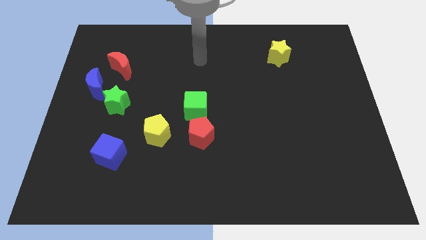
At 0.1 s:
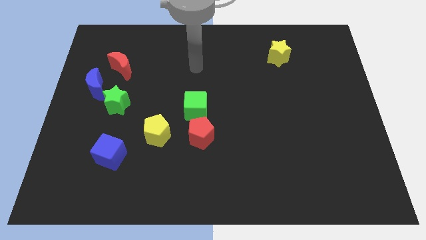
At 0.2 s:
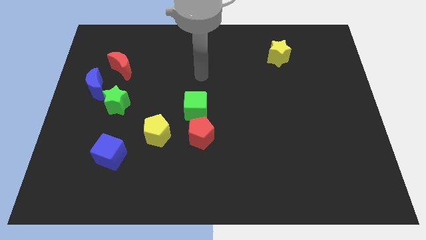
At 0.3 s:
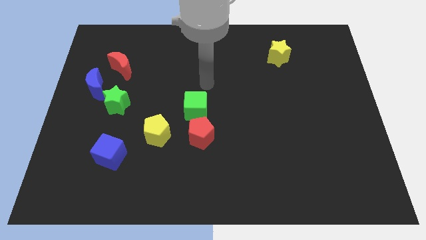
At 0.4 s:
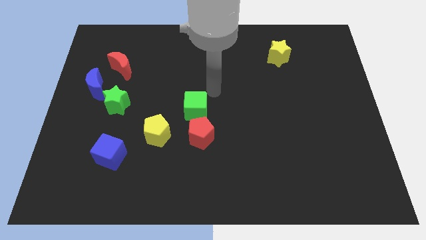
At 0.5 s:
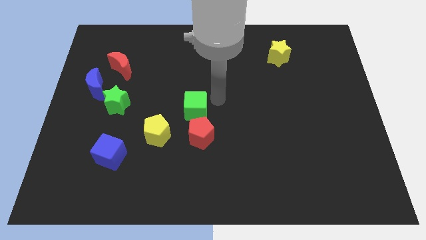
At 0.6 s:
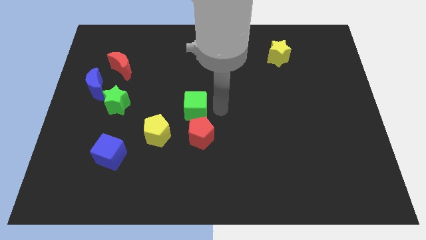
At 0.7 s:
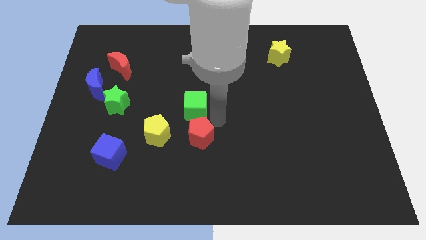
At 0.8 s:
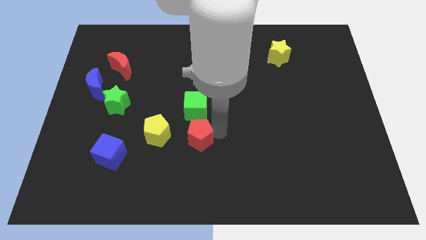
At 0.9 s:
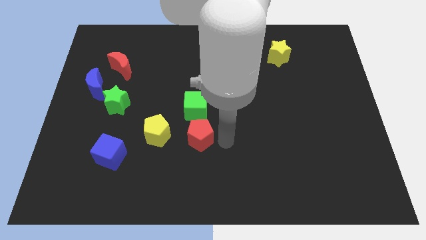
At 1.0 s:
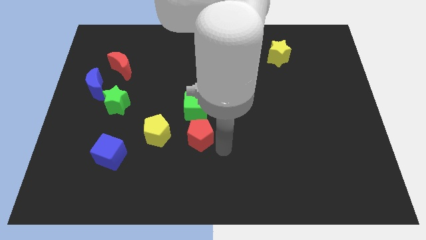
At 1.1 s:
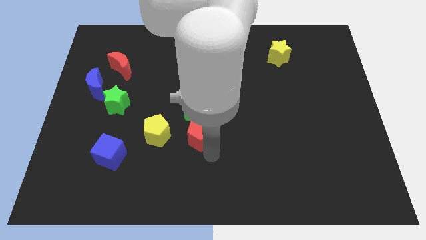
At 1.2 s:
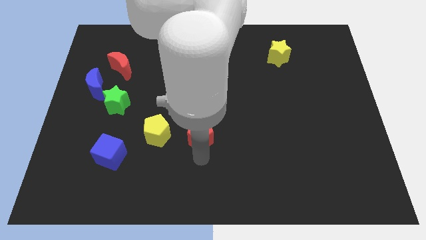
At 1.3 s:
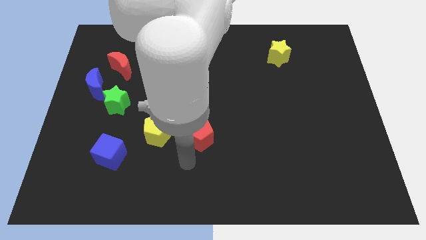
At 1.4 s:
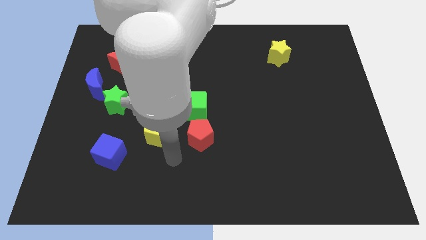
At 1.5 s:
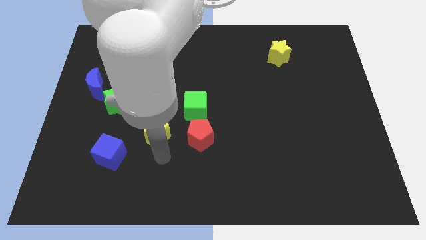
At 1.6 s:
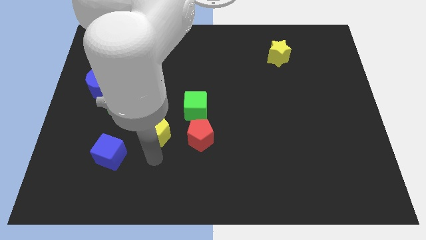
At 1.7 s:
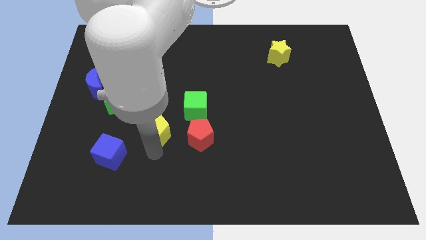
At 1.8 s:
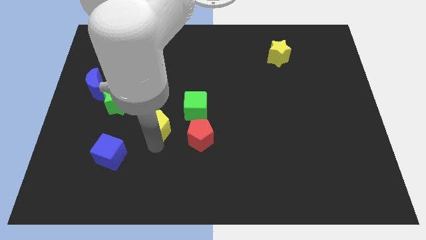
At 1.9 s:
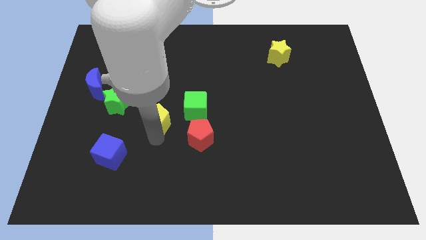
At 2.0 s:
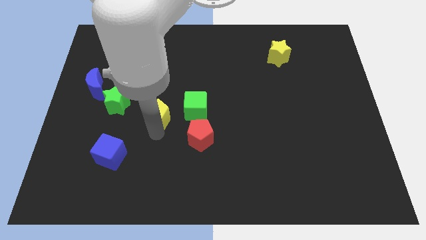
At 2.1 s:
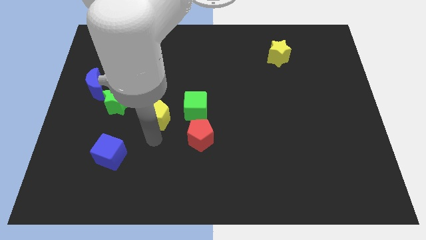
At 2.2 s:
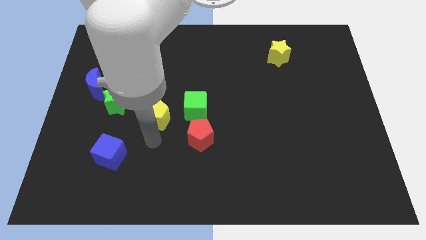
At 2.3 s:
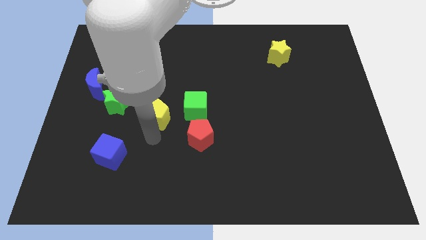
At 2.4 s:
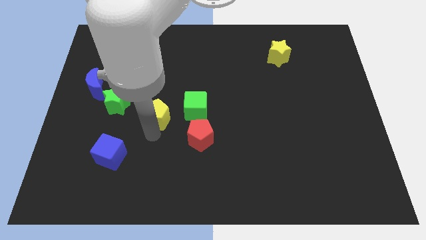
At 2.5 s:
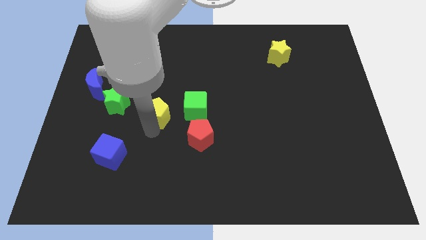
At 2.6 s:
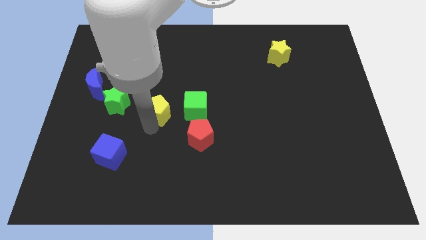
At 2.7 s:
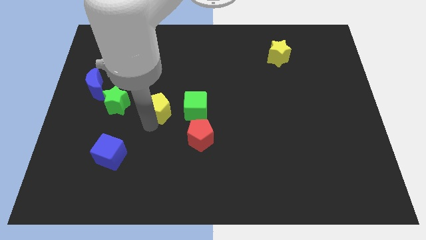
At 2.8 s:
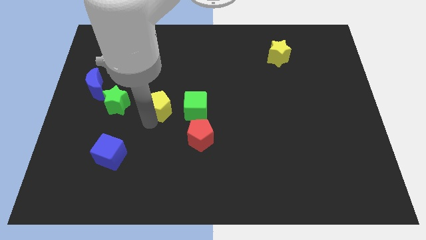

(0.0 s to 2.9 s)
move the yellow pentagon slightly upwards

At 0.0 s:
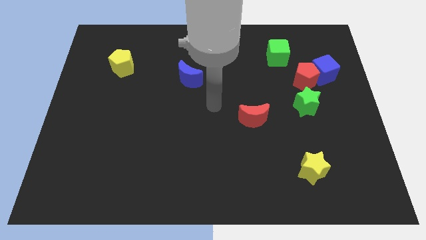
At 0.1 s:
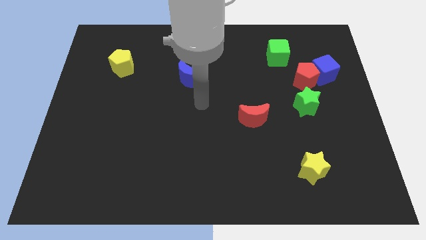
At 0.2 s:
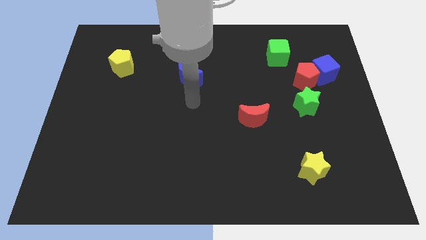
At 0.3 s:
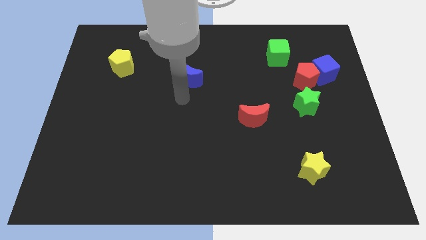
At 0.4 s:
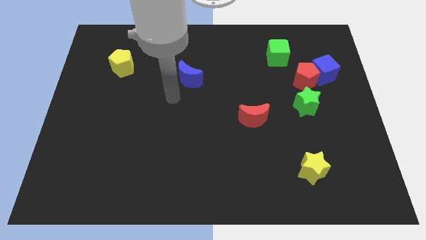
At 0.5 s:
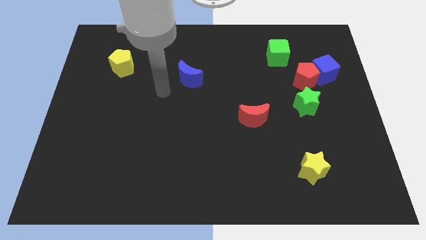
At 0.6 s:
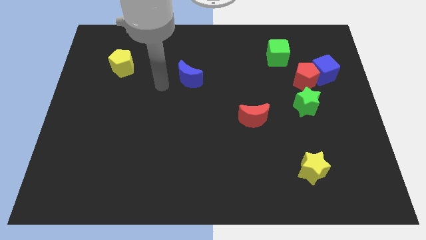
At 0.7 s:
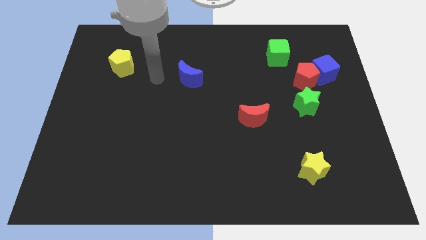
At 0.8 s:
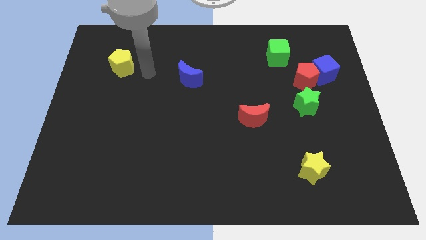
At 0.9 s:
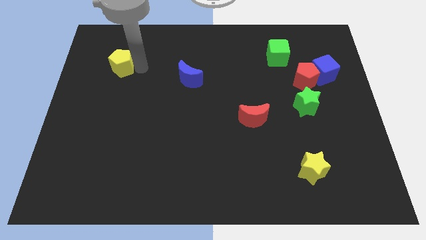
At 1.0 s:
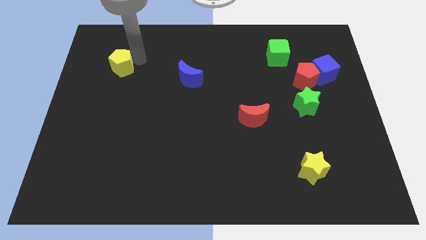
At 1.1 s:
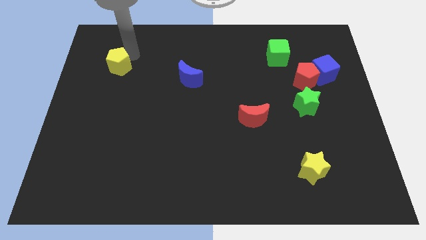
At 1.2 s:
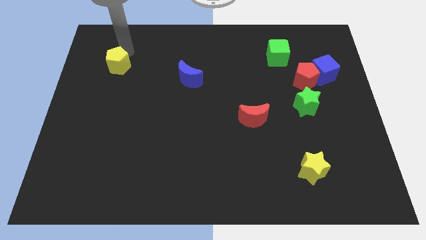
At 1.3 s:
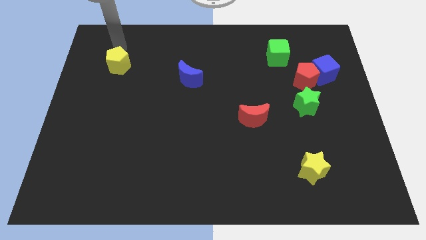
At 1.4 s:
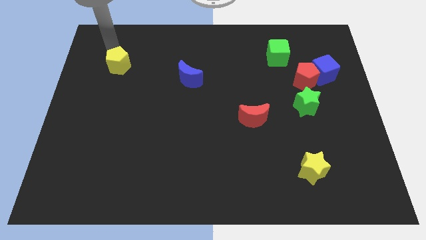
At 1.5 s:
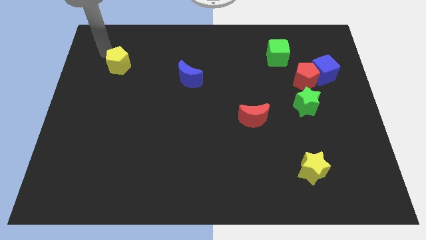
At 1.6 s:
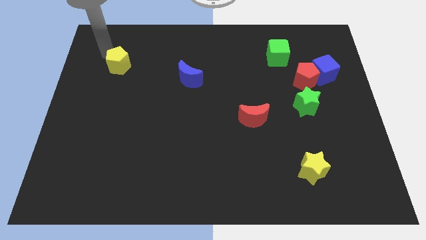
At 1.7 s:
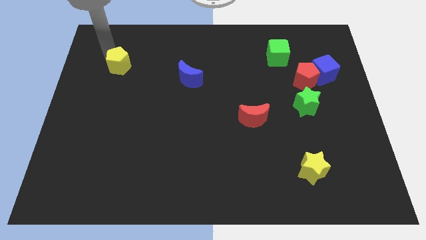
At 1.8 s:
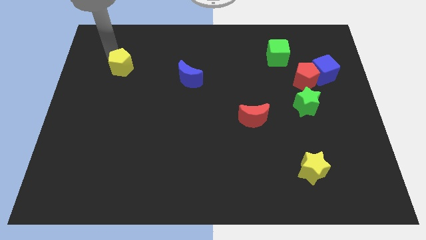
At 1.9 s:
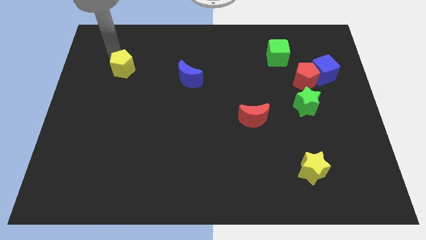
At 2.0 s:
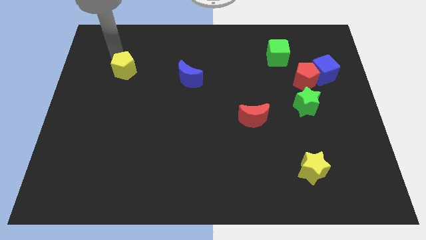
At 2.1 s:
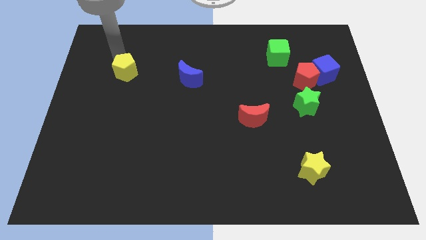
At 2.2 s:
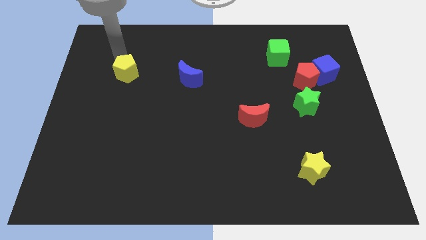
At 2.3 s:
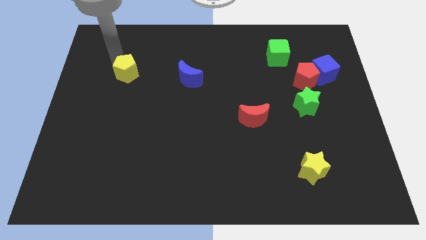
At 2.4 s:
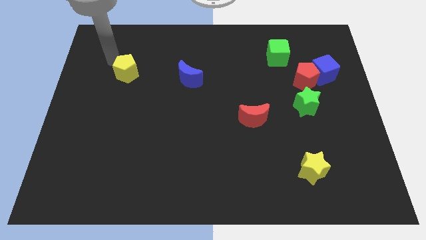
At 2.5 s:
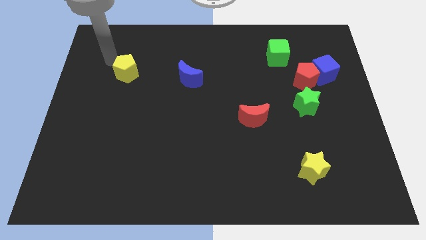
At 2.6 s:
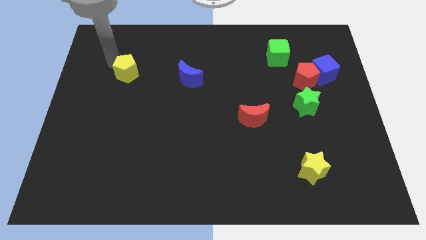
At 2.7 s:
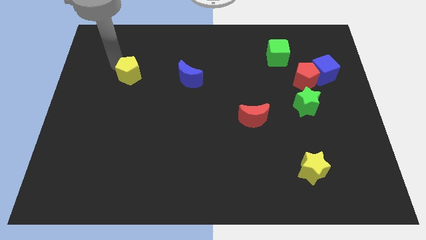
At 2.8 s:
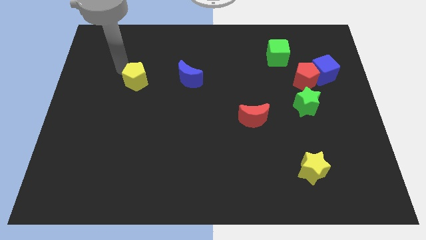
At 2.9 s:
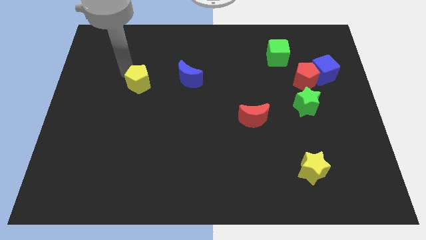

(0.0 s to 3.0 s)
move the yellow pentagon downwards and to the right diagonally slightly

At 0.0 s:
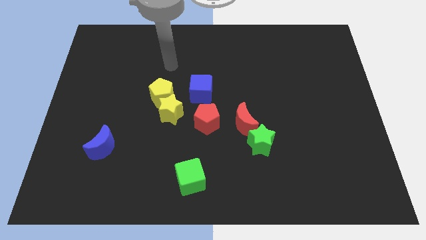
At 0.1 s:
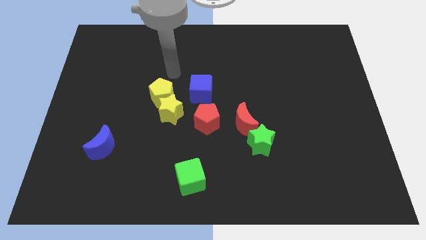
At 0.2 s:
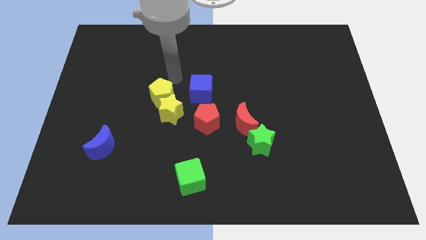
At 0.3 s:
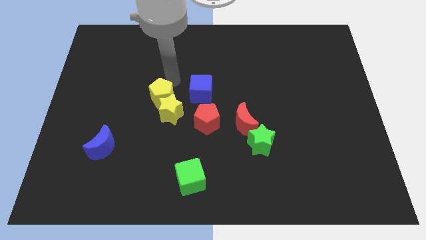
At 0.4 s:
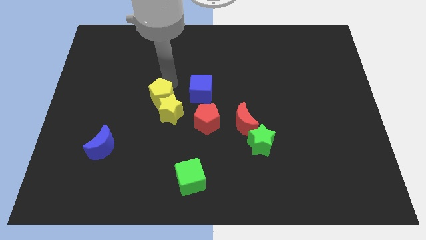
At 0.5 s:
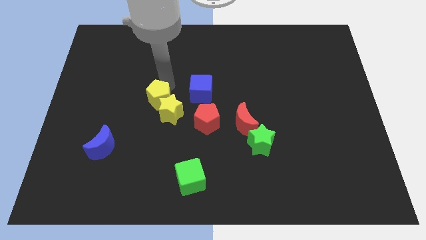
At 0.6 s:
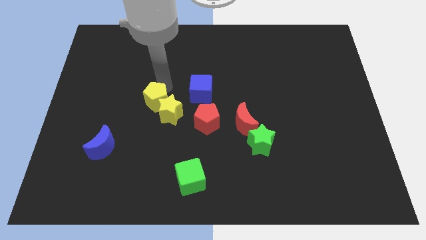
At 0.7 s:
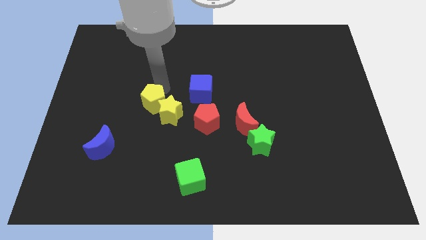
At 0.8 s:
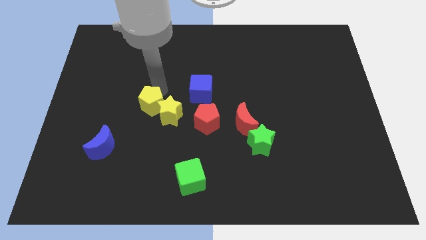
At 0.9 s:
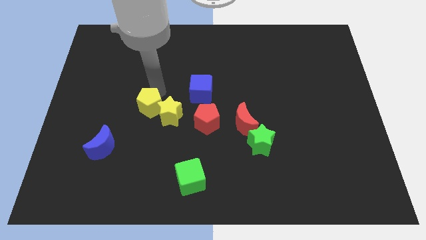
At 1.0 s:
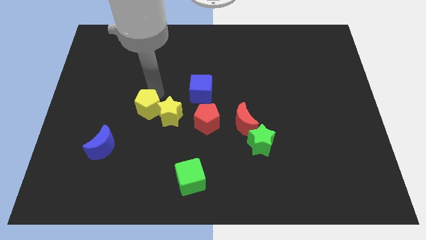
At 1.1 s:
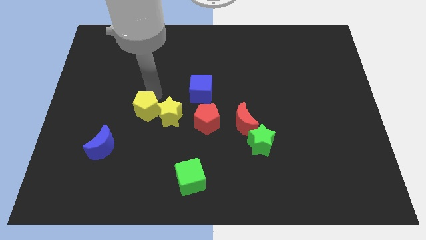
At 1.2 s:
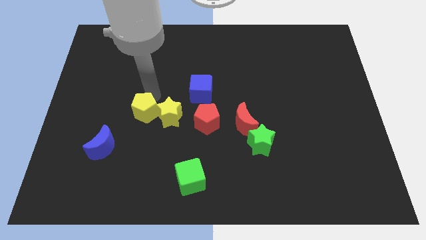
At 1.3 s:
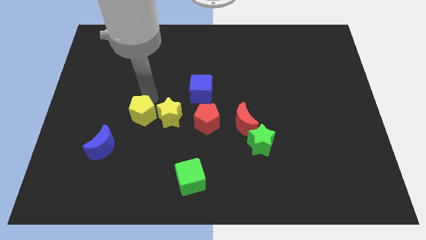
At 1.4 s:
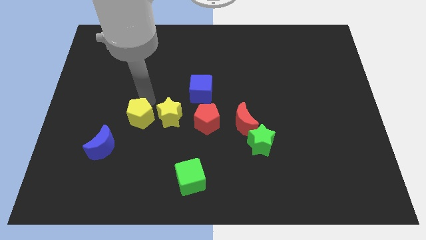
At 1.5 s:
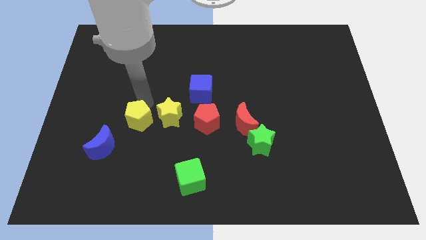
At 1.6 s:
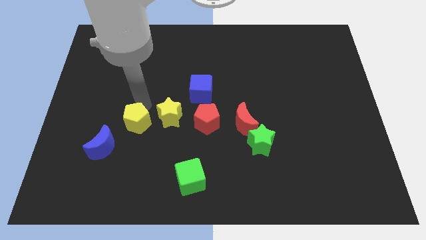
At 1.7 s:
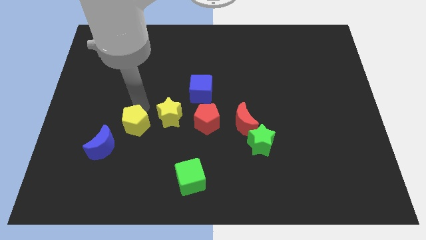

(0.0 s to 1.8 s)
push the yellow pentagon somewhat downwards

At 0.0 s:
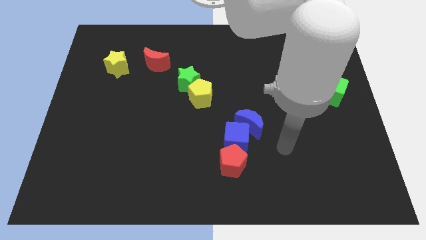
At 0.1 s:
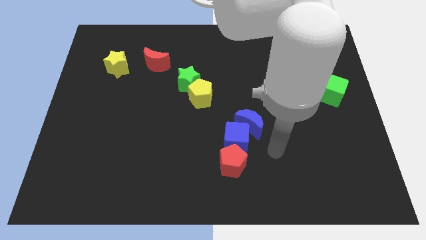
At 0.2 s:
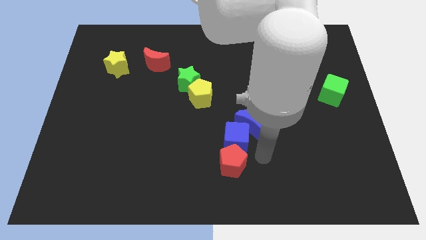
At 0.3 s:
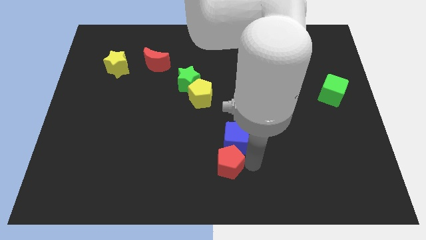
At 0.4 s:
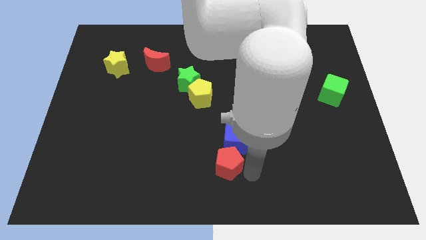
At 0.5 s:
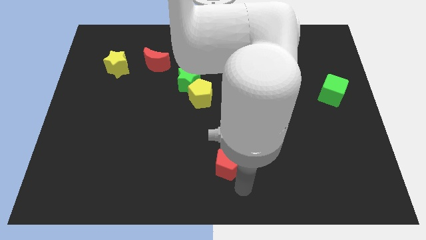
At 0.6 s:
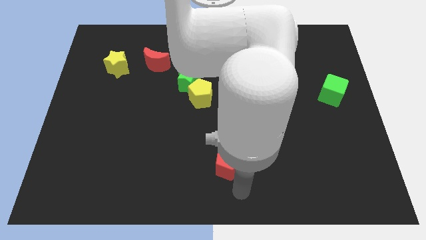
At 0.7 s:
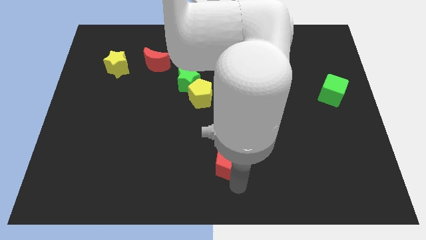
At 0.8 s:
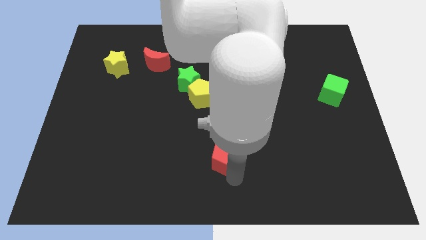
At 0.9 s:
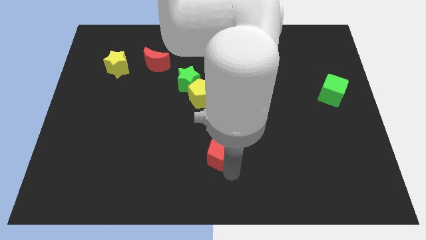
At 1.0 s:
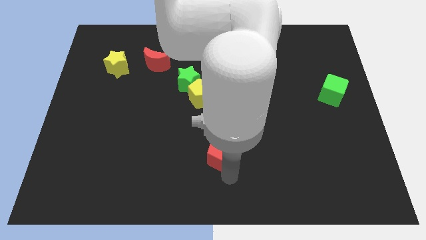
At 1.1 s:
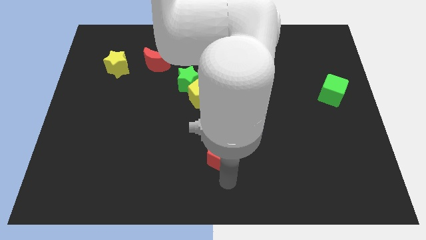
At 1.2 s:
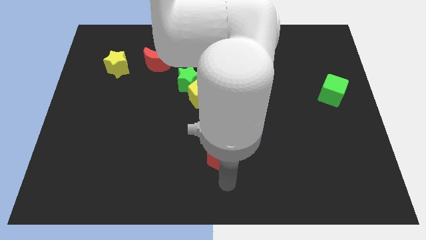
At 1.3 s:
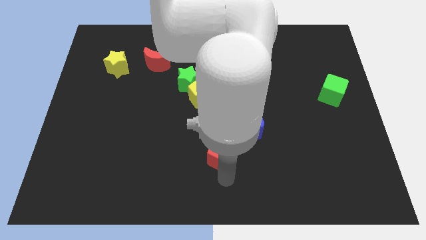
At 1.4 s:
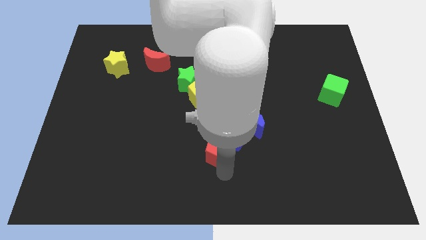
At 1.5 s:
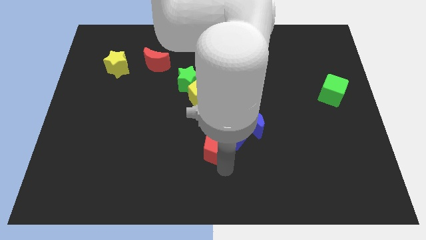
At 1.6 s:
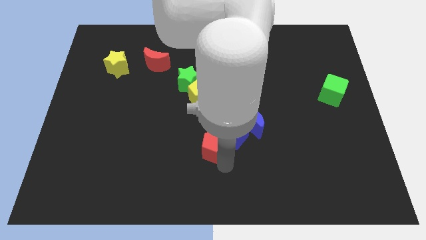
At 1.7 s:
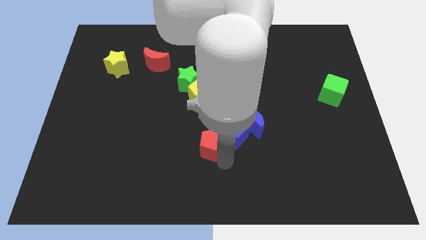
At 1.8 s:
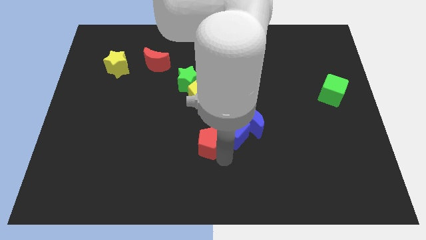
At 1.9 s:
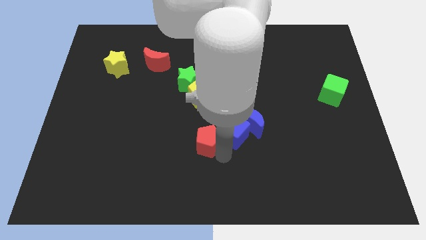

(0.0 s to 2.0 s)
slightly move the red pentagon upwards and then left
